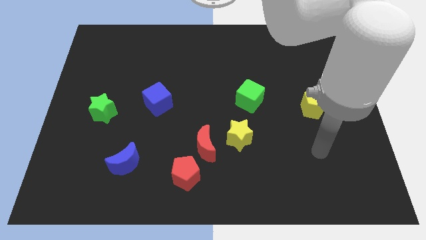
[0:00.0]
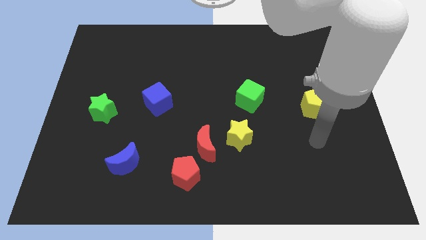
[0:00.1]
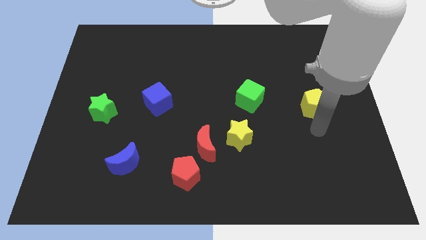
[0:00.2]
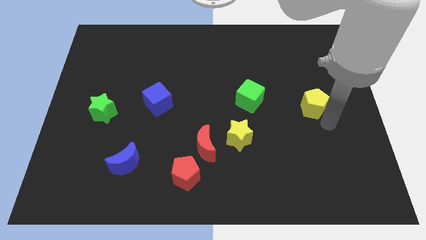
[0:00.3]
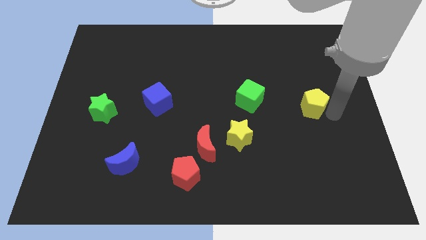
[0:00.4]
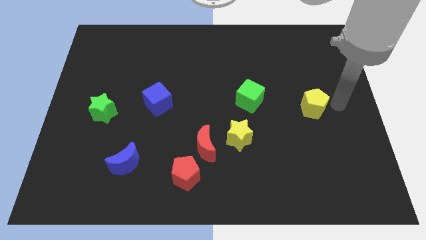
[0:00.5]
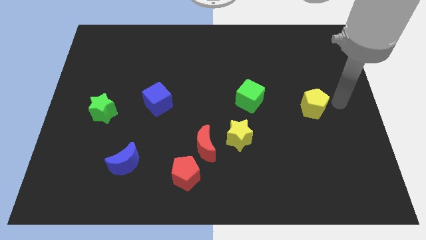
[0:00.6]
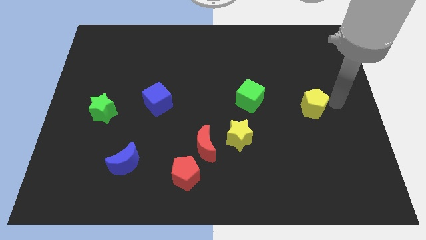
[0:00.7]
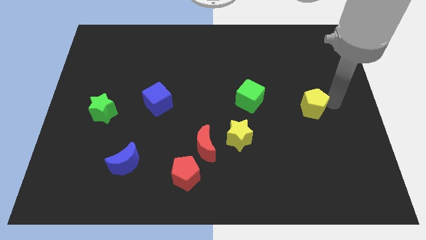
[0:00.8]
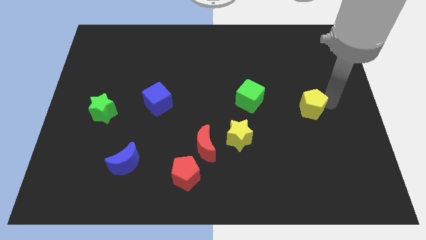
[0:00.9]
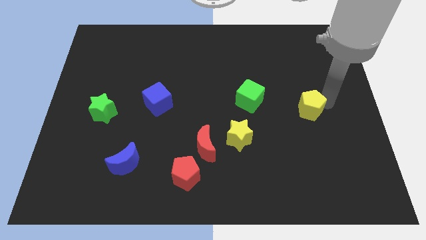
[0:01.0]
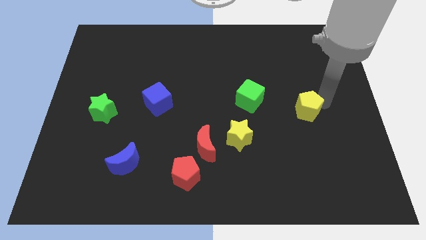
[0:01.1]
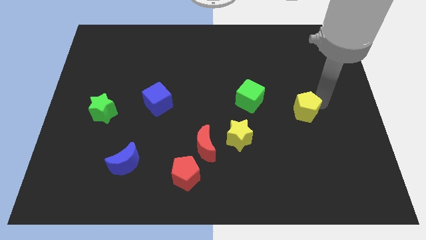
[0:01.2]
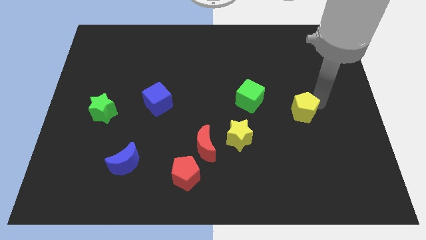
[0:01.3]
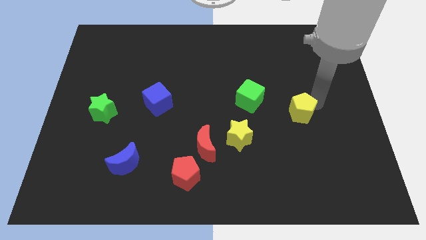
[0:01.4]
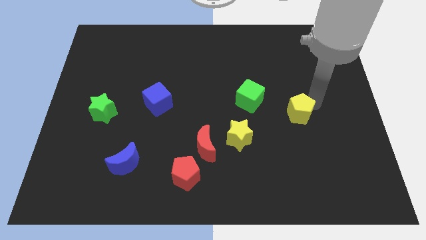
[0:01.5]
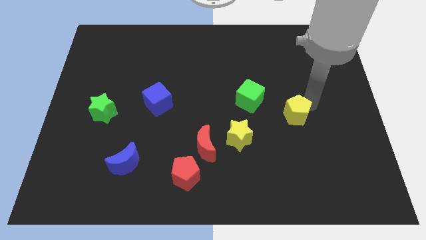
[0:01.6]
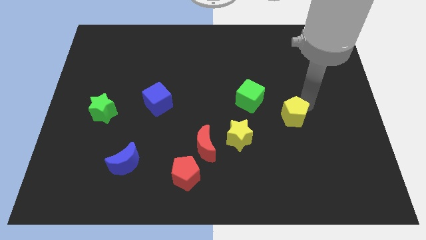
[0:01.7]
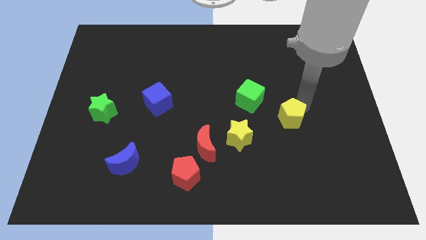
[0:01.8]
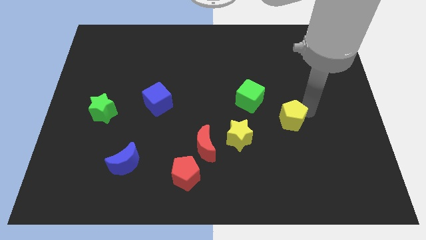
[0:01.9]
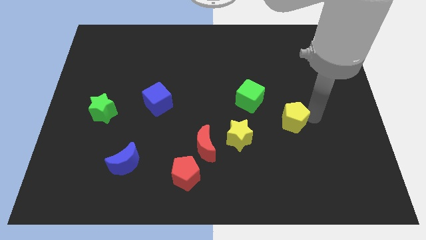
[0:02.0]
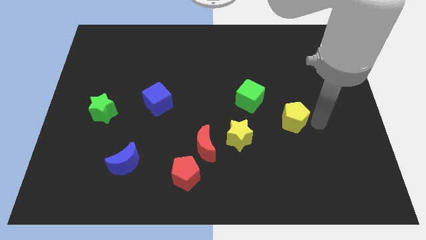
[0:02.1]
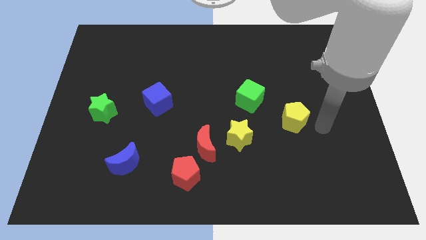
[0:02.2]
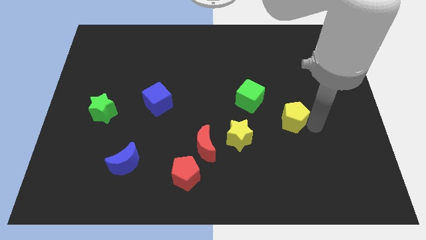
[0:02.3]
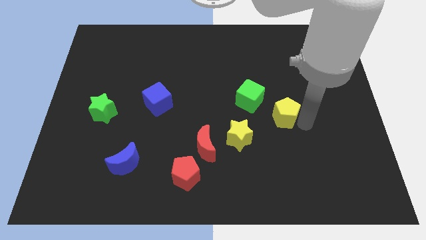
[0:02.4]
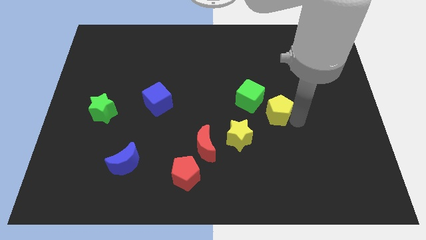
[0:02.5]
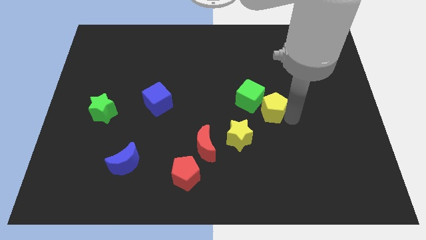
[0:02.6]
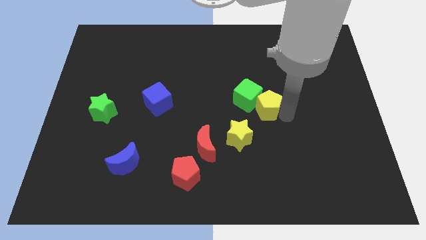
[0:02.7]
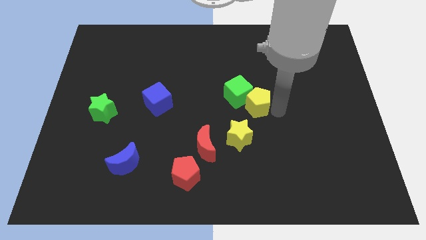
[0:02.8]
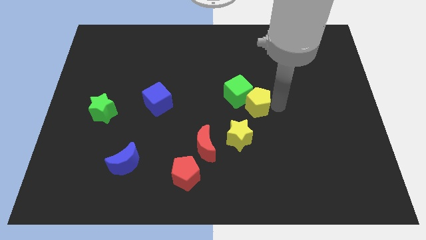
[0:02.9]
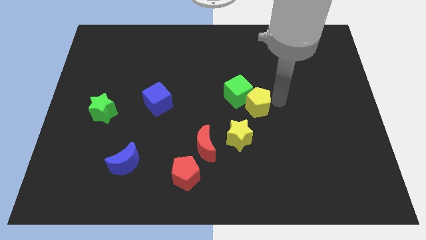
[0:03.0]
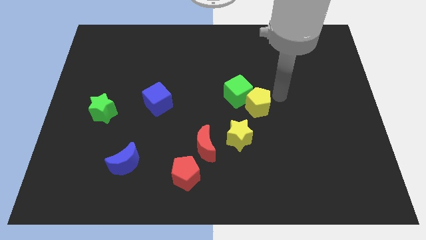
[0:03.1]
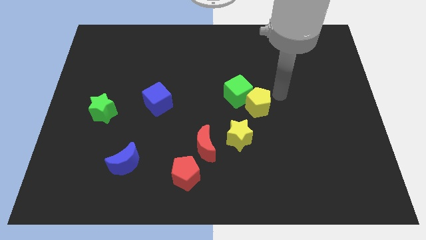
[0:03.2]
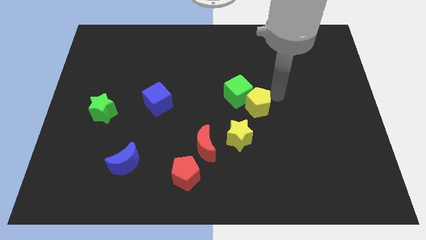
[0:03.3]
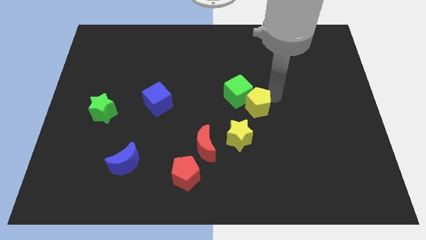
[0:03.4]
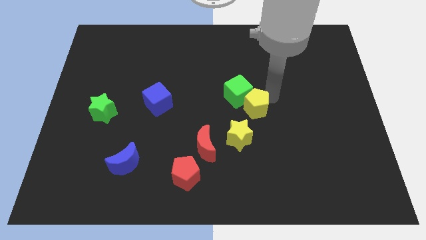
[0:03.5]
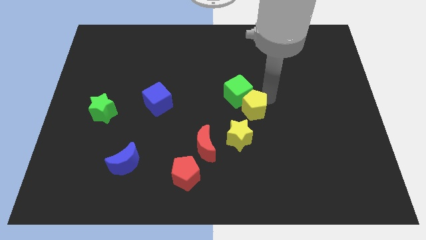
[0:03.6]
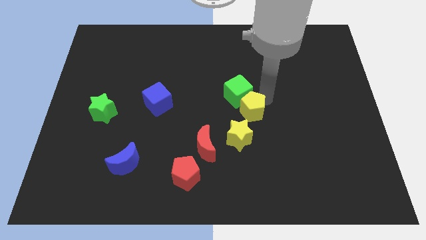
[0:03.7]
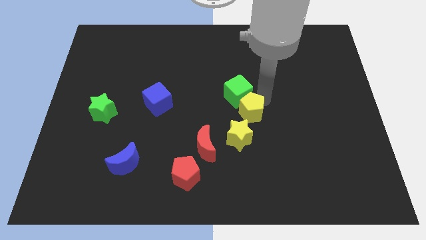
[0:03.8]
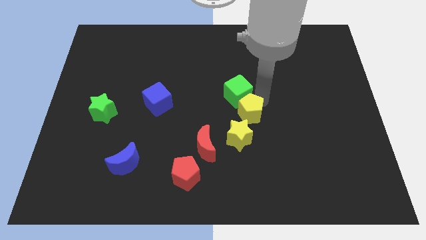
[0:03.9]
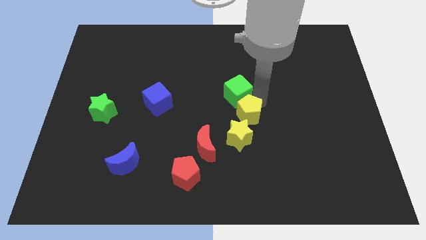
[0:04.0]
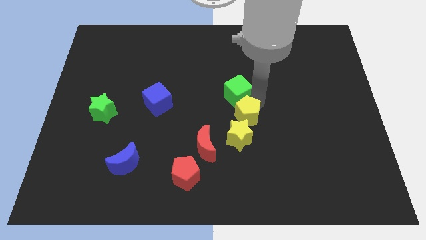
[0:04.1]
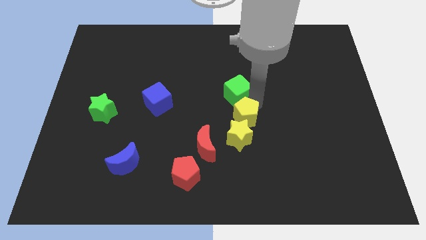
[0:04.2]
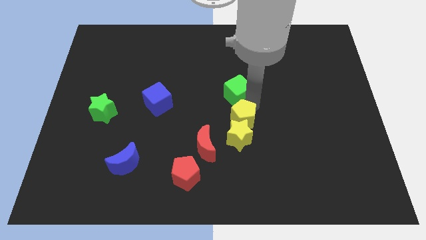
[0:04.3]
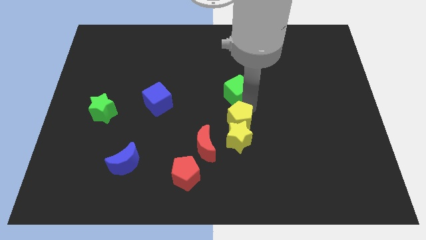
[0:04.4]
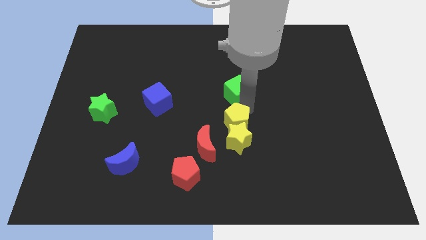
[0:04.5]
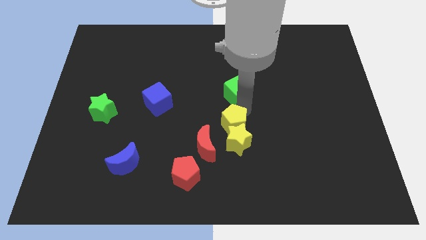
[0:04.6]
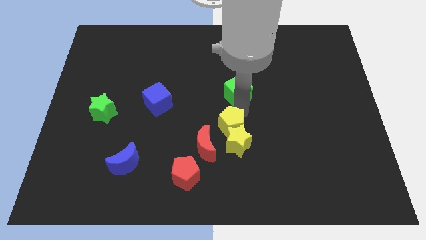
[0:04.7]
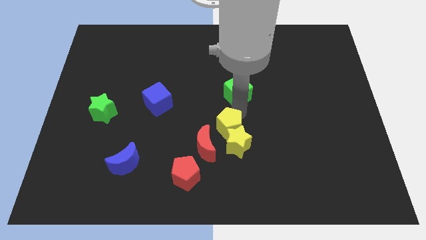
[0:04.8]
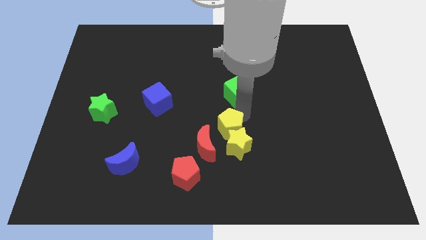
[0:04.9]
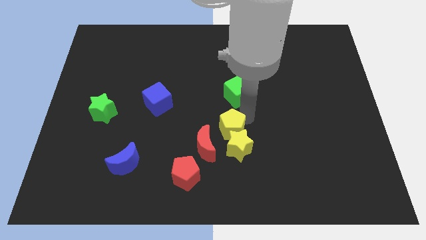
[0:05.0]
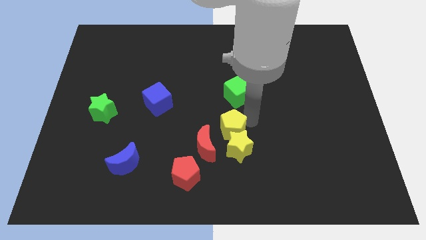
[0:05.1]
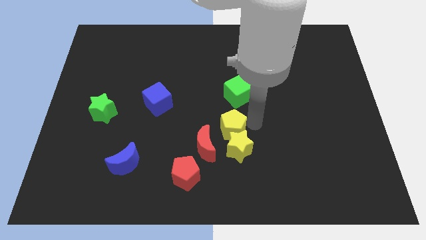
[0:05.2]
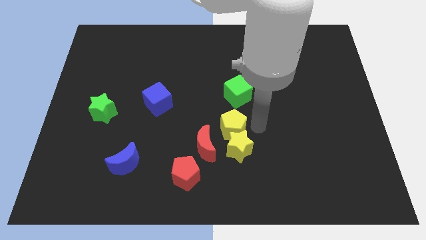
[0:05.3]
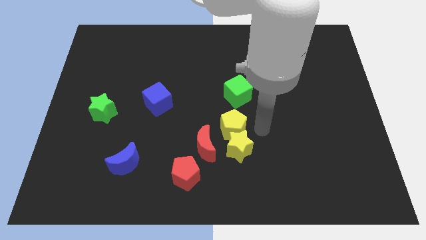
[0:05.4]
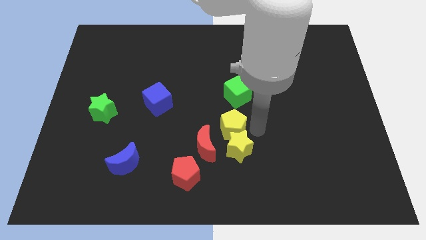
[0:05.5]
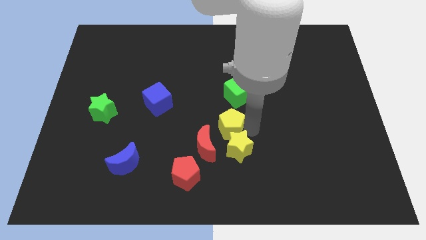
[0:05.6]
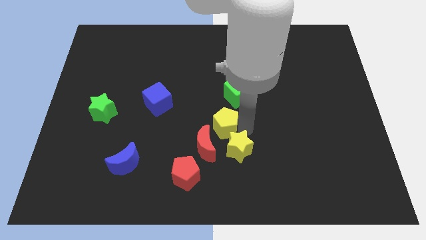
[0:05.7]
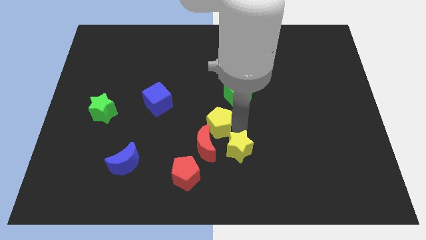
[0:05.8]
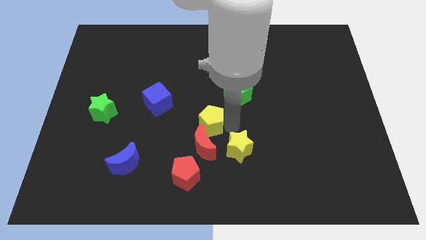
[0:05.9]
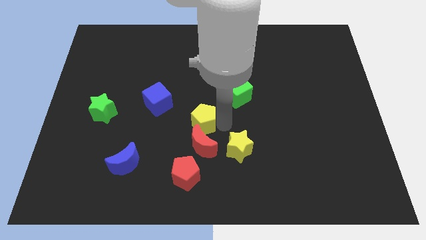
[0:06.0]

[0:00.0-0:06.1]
push the yellow pentagon to the top of the red pentagon
